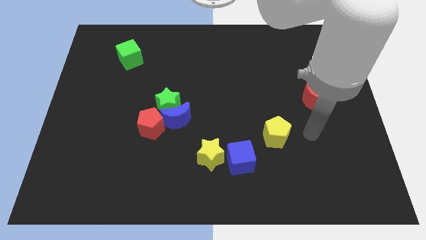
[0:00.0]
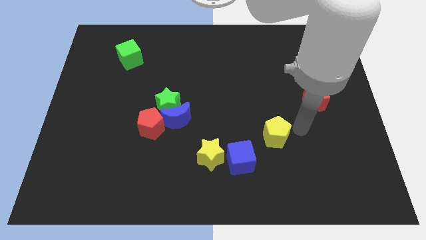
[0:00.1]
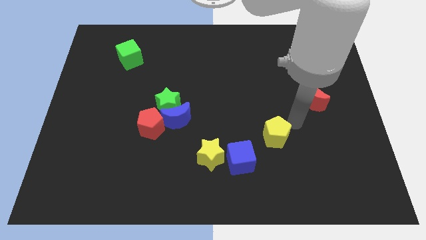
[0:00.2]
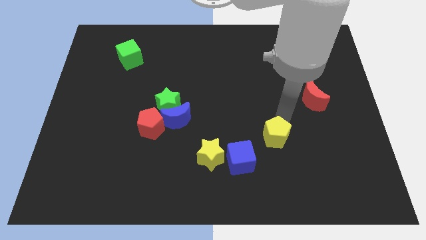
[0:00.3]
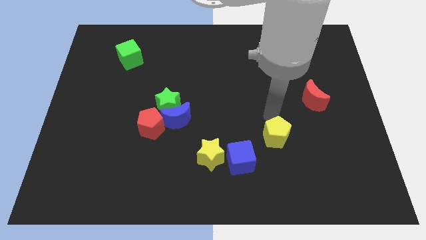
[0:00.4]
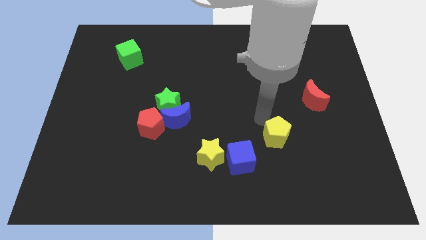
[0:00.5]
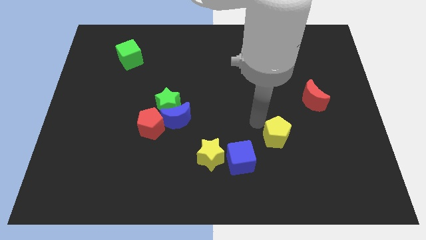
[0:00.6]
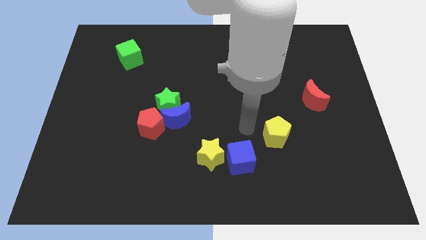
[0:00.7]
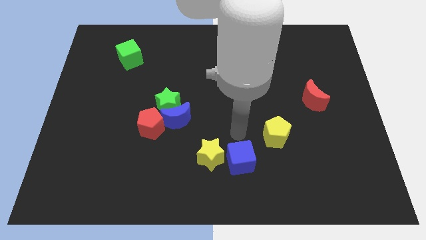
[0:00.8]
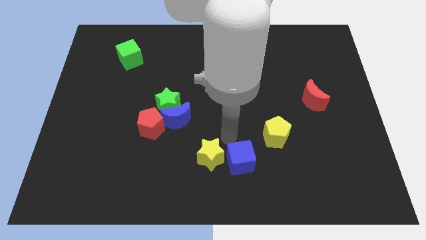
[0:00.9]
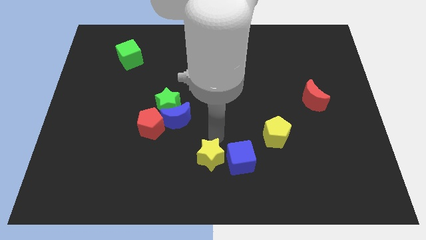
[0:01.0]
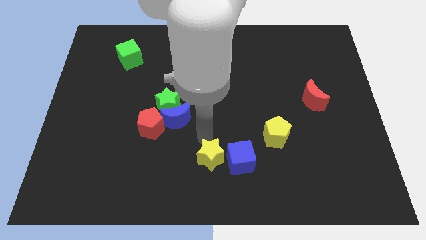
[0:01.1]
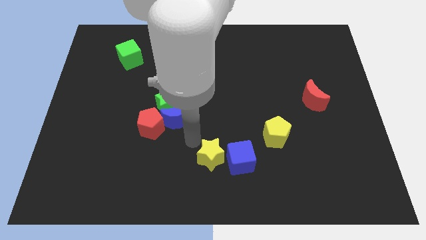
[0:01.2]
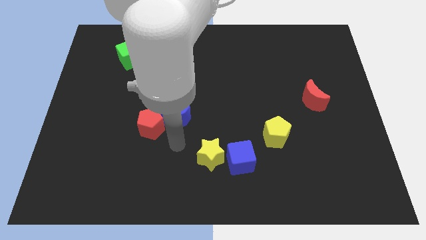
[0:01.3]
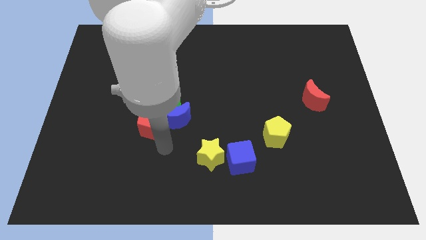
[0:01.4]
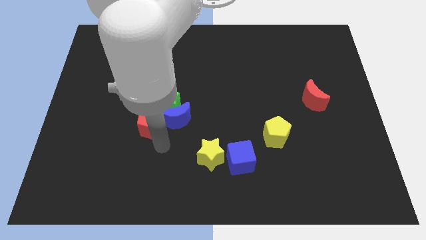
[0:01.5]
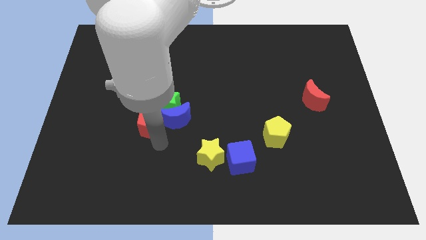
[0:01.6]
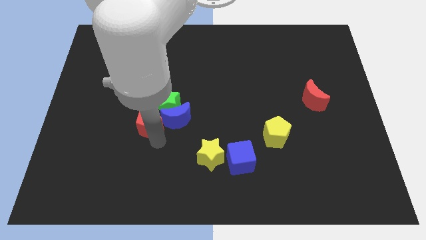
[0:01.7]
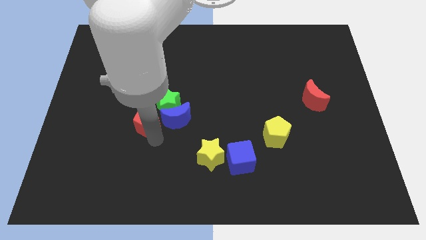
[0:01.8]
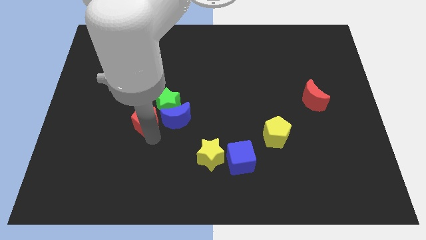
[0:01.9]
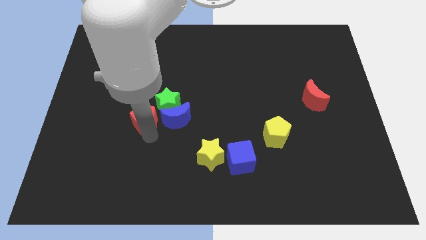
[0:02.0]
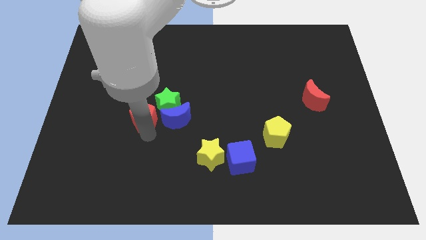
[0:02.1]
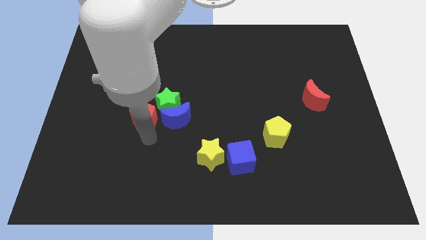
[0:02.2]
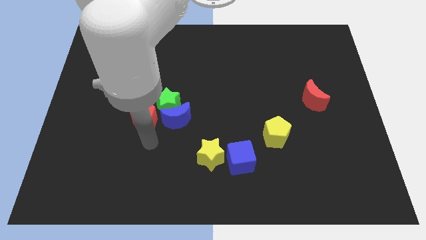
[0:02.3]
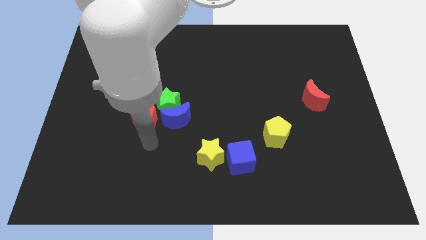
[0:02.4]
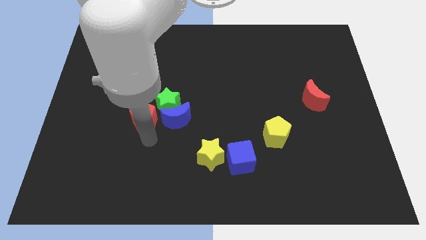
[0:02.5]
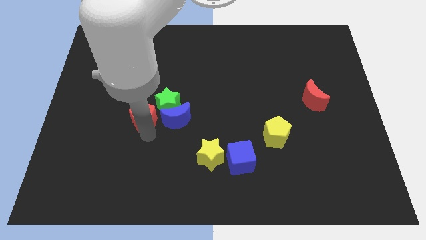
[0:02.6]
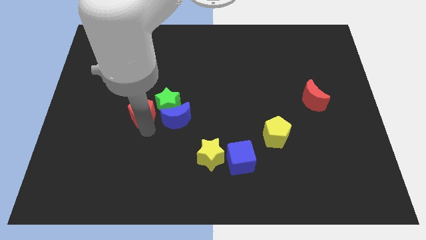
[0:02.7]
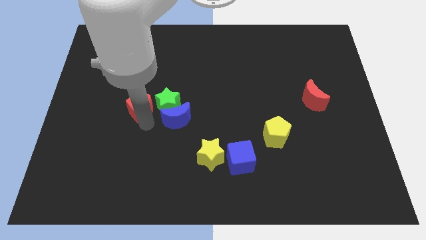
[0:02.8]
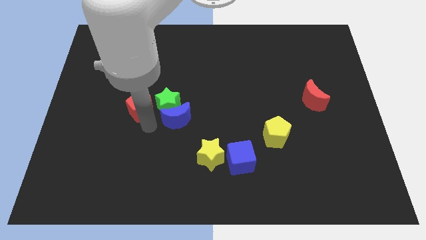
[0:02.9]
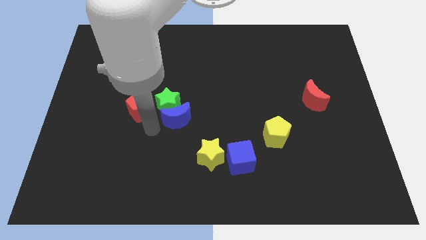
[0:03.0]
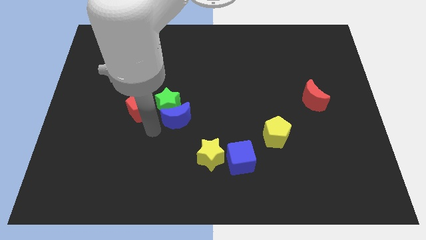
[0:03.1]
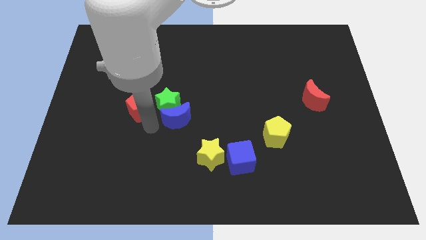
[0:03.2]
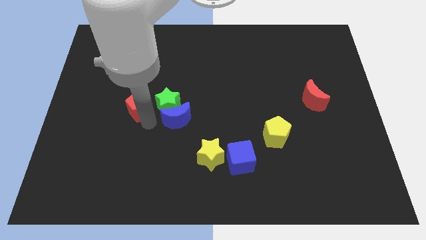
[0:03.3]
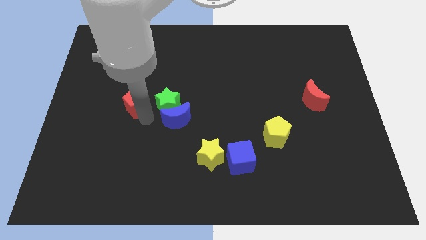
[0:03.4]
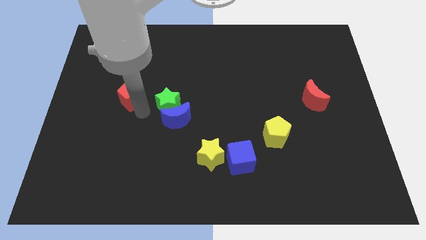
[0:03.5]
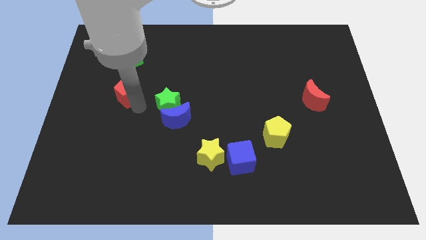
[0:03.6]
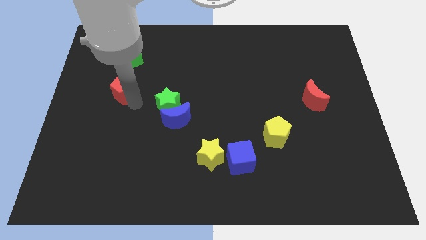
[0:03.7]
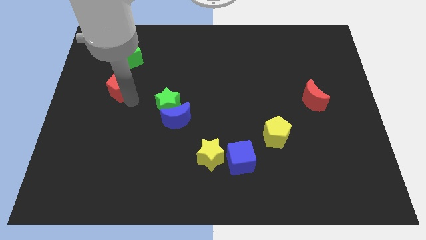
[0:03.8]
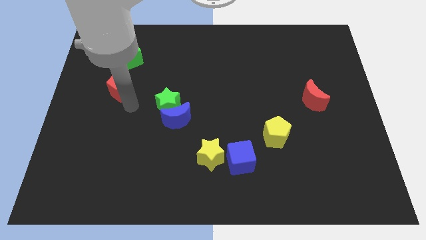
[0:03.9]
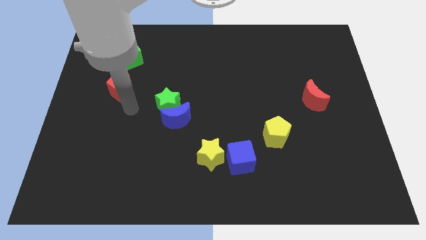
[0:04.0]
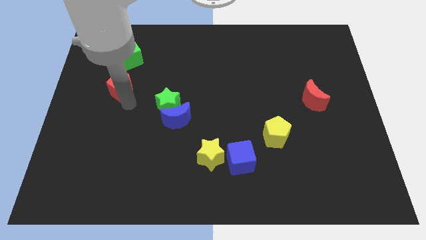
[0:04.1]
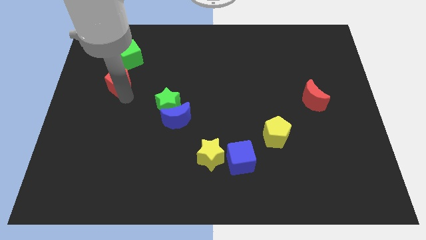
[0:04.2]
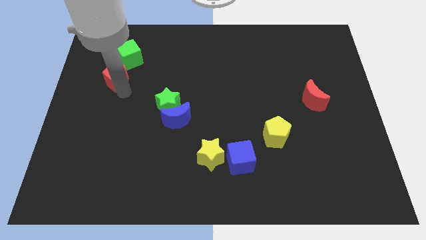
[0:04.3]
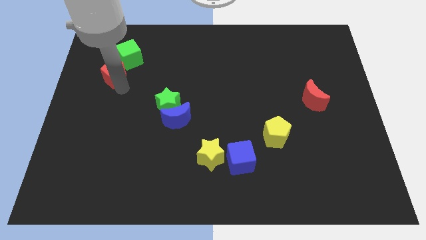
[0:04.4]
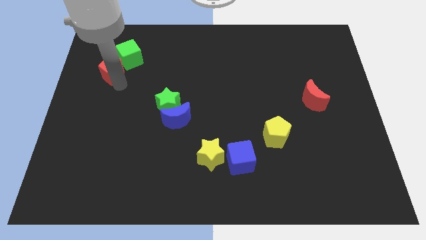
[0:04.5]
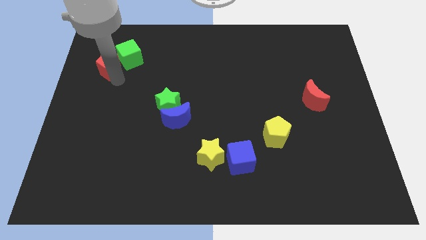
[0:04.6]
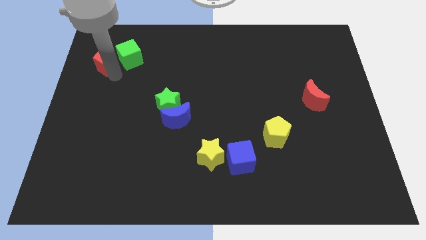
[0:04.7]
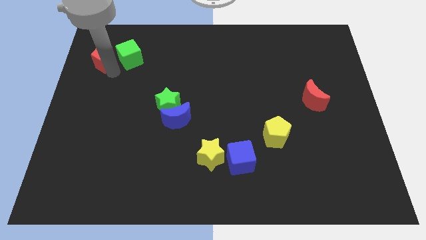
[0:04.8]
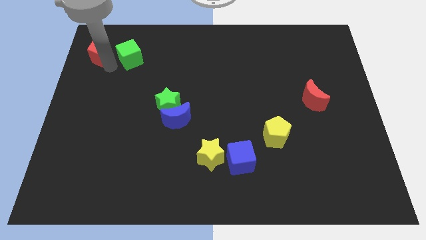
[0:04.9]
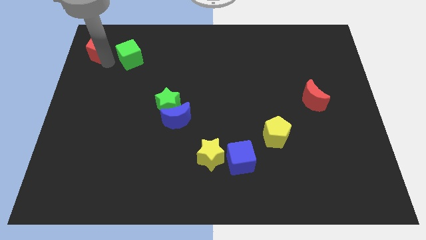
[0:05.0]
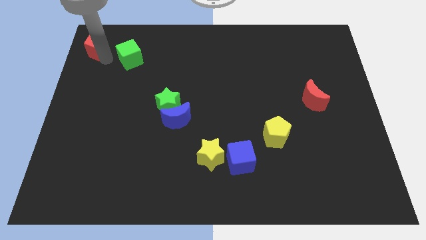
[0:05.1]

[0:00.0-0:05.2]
put the red pentagon to the top left of the board

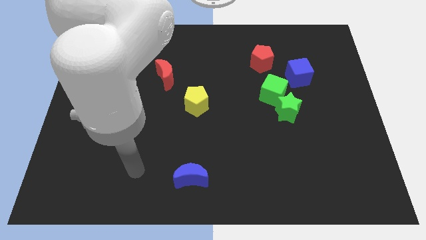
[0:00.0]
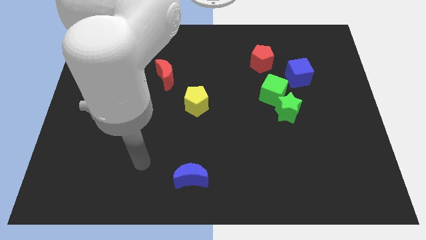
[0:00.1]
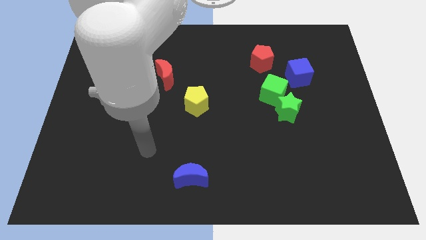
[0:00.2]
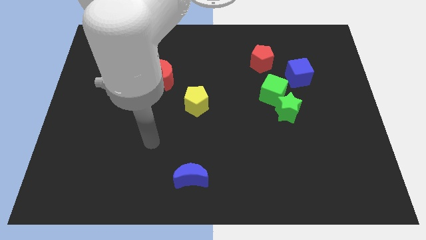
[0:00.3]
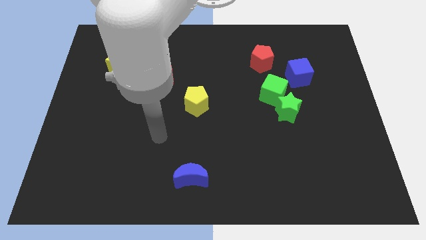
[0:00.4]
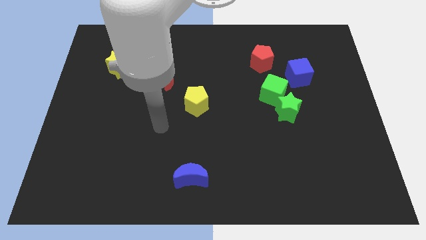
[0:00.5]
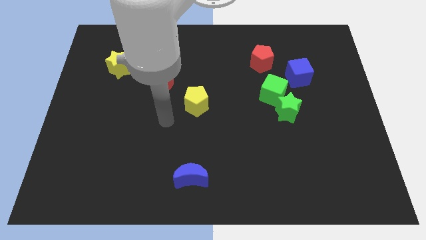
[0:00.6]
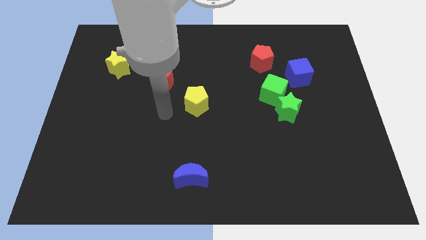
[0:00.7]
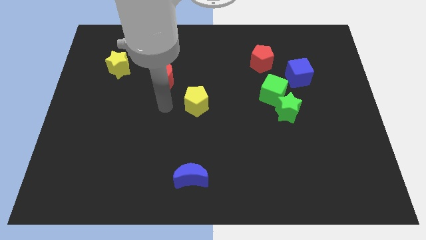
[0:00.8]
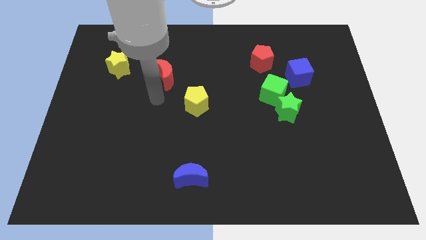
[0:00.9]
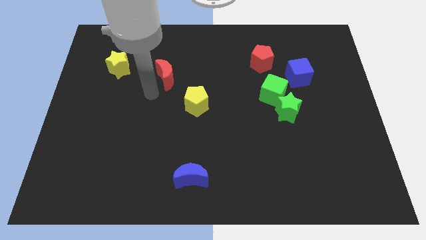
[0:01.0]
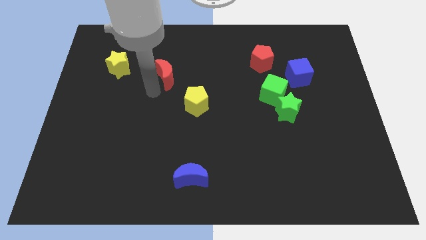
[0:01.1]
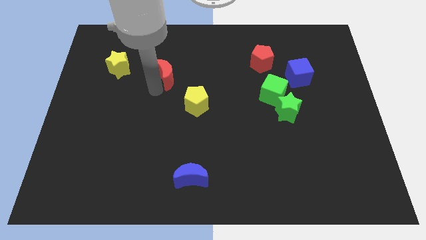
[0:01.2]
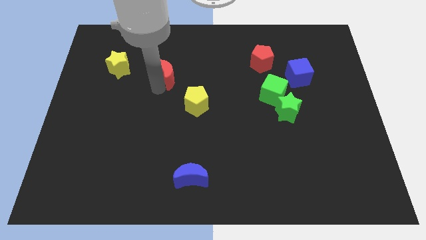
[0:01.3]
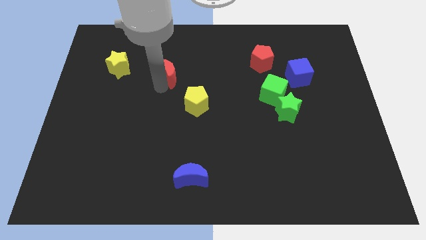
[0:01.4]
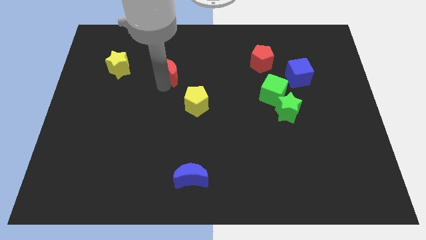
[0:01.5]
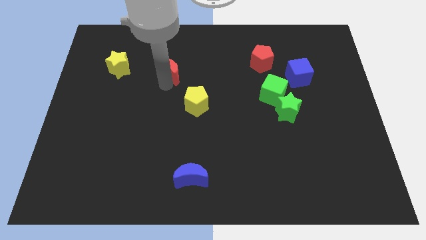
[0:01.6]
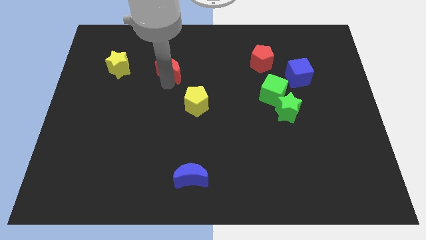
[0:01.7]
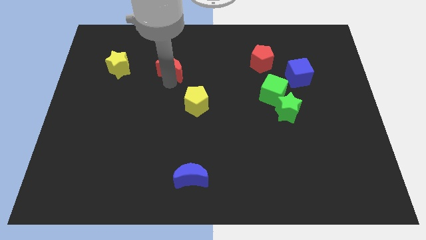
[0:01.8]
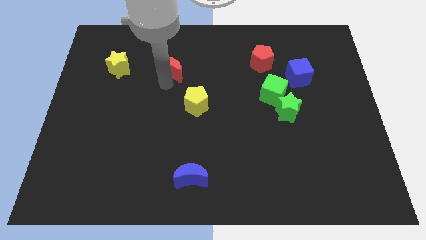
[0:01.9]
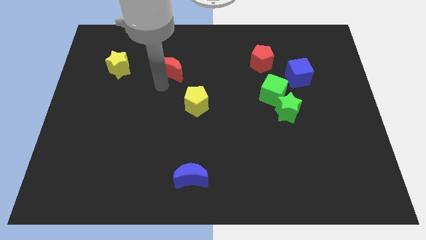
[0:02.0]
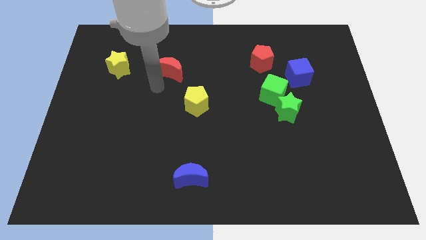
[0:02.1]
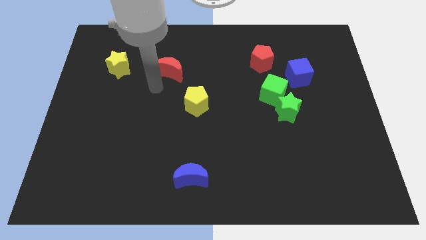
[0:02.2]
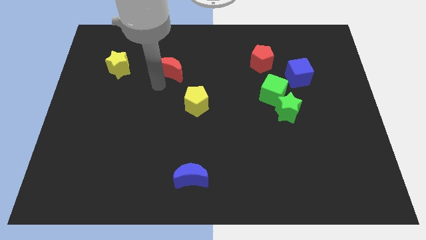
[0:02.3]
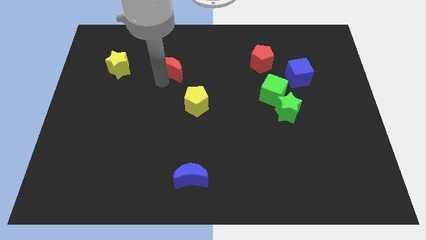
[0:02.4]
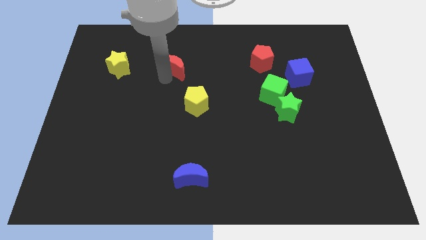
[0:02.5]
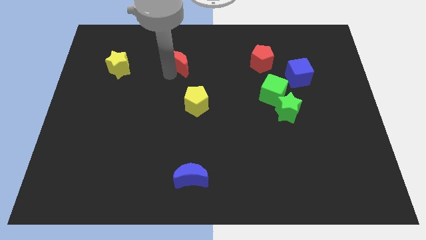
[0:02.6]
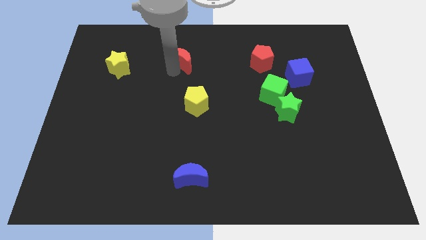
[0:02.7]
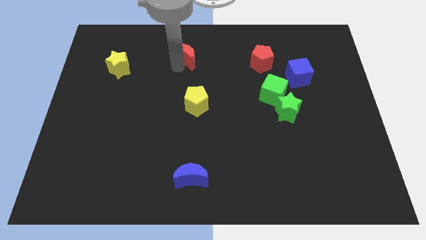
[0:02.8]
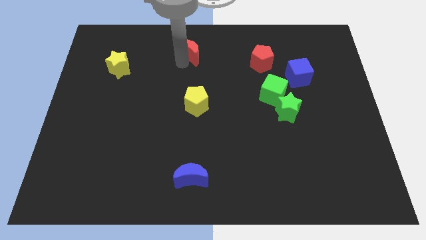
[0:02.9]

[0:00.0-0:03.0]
move the red moon to the top
